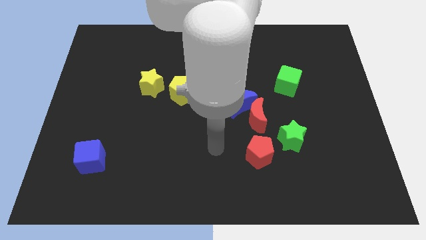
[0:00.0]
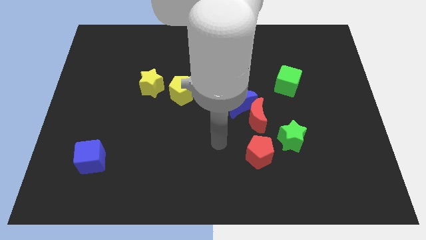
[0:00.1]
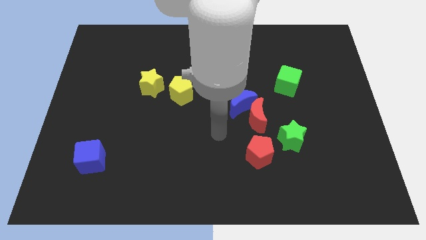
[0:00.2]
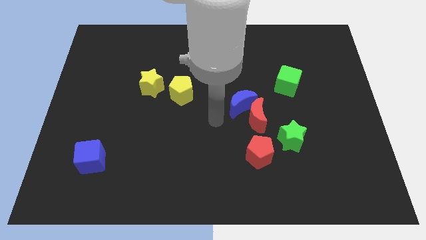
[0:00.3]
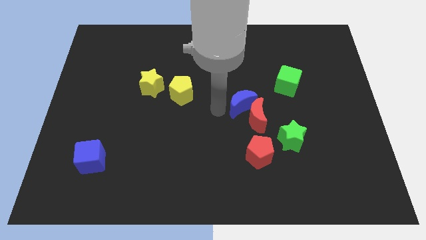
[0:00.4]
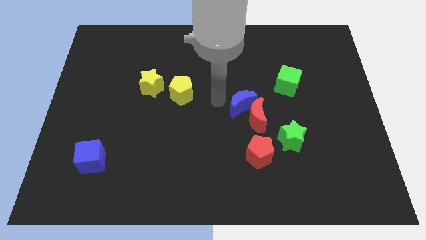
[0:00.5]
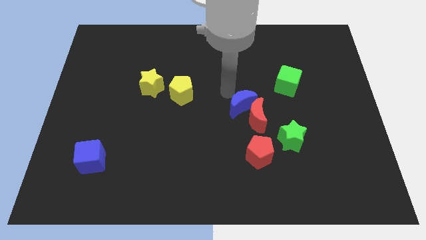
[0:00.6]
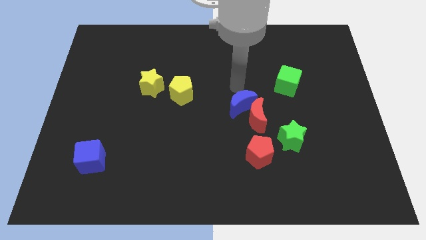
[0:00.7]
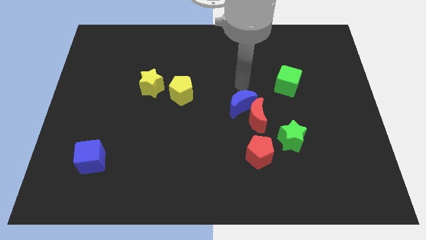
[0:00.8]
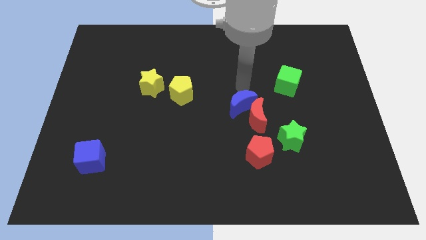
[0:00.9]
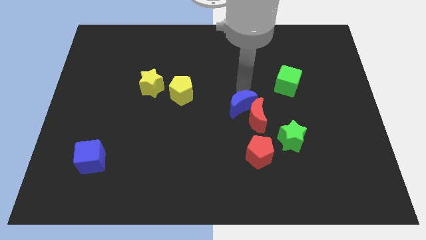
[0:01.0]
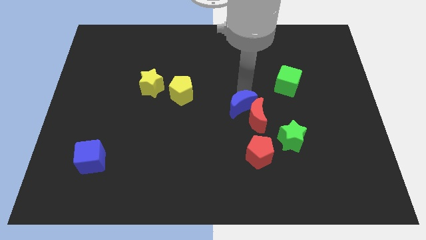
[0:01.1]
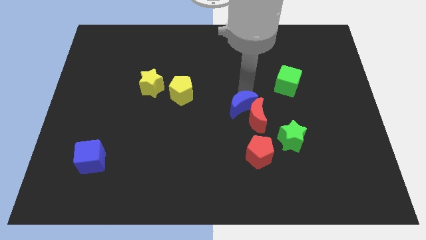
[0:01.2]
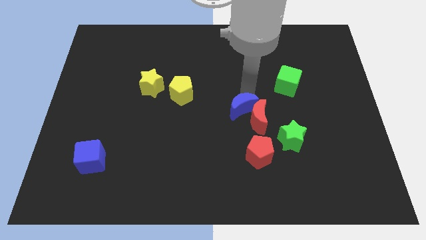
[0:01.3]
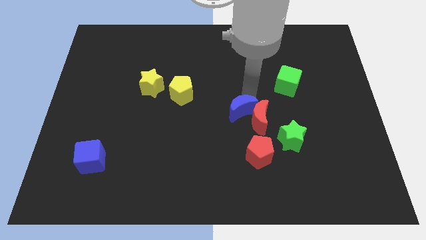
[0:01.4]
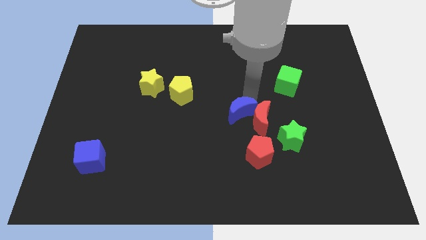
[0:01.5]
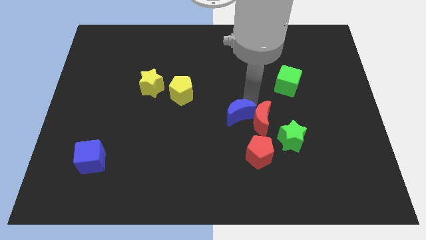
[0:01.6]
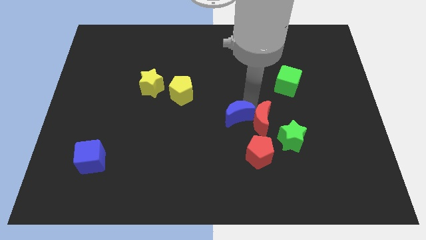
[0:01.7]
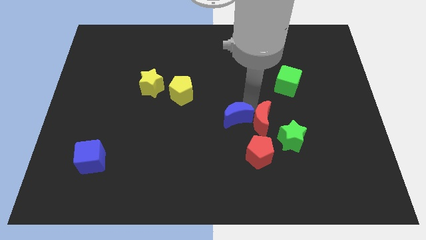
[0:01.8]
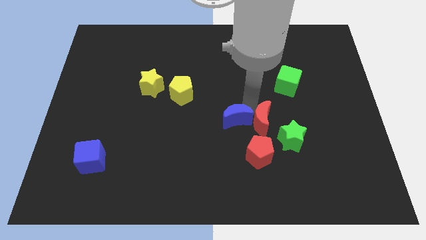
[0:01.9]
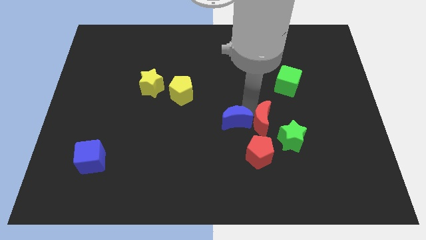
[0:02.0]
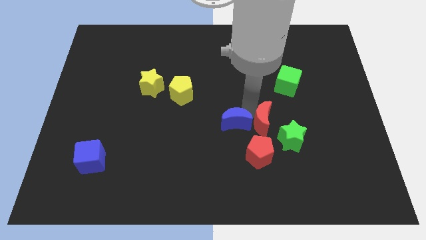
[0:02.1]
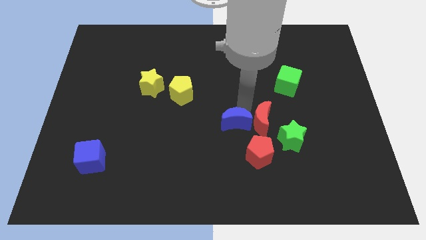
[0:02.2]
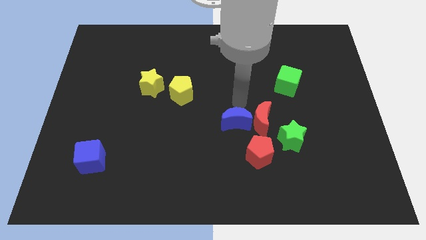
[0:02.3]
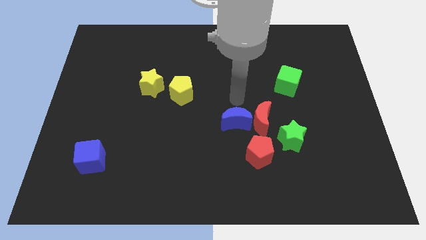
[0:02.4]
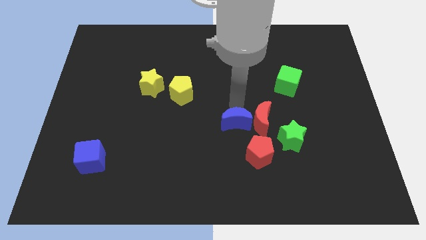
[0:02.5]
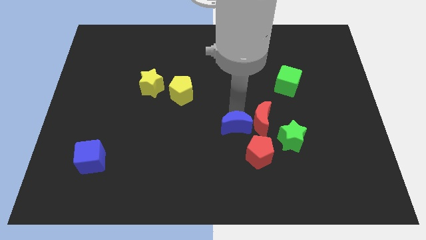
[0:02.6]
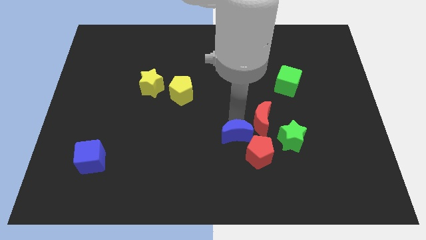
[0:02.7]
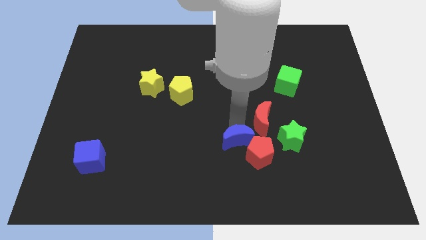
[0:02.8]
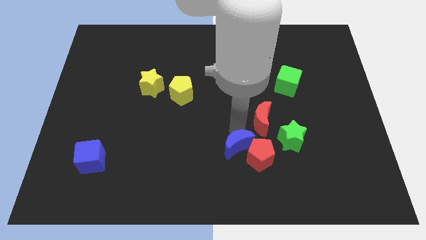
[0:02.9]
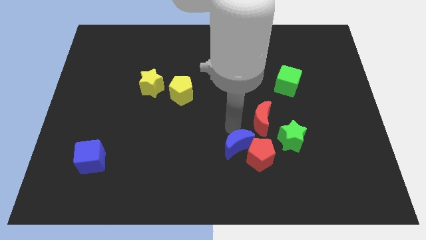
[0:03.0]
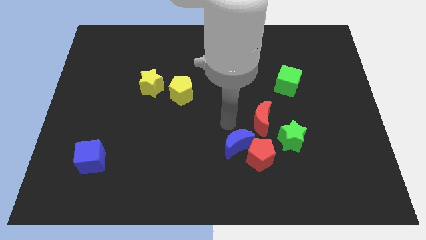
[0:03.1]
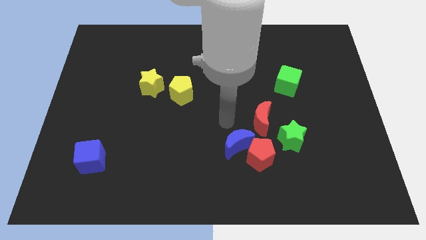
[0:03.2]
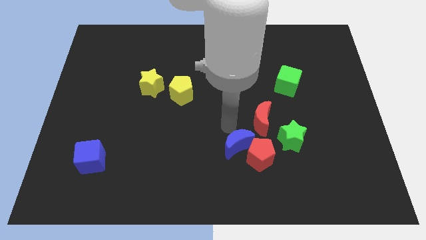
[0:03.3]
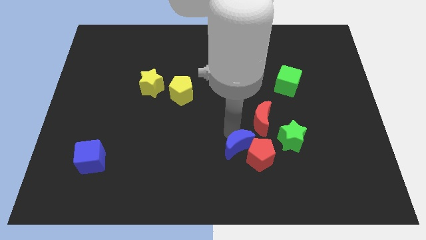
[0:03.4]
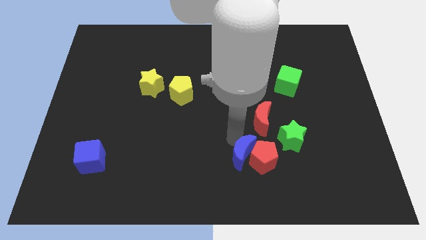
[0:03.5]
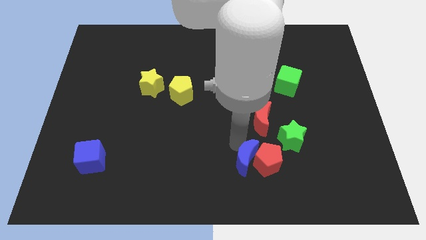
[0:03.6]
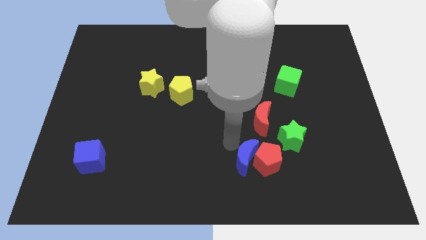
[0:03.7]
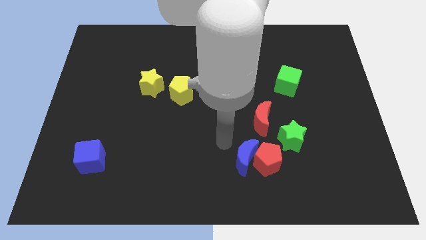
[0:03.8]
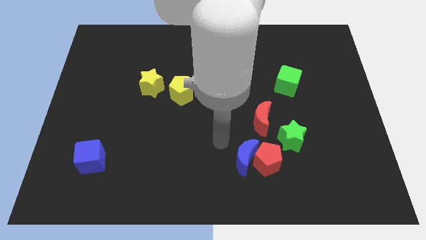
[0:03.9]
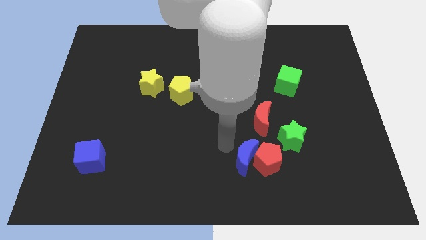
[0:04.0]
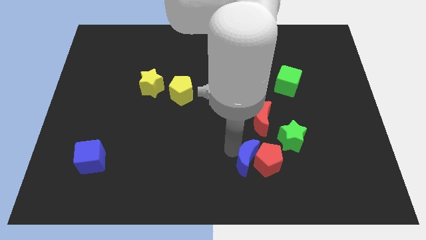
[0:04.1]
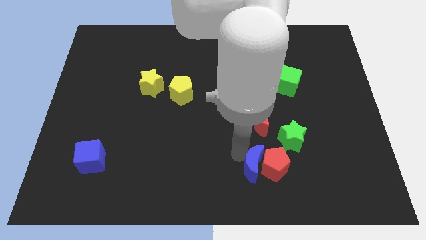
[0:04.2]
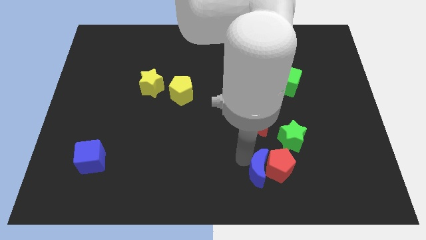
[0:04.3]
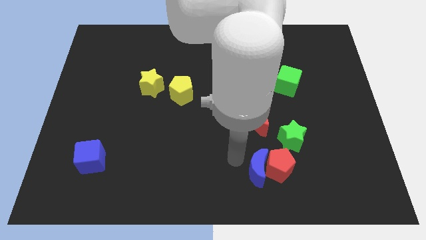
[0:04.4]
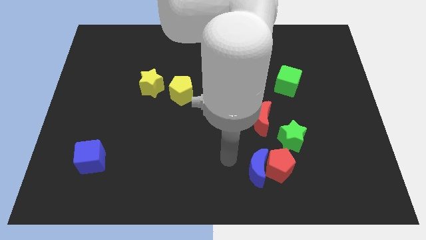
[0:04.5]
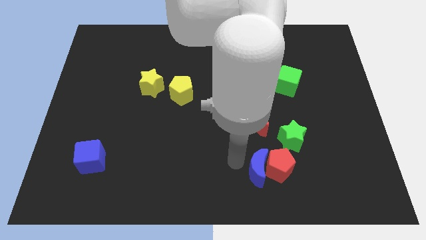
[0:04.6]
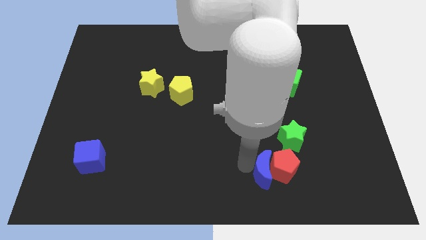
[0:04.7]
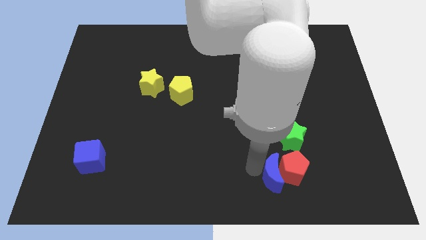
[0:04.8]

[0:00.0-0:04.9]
push the blue moon to the bottom side of the green star

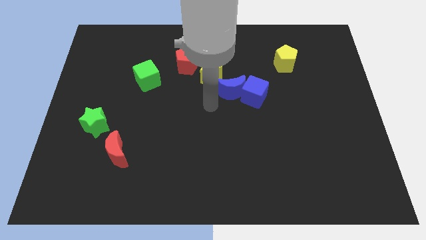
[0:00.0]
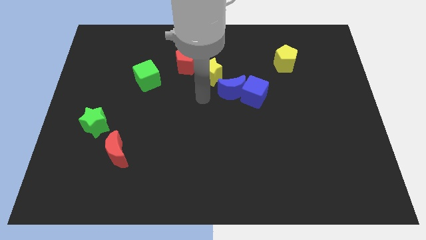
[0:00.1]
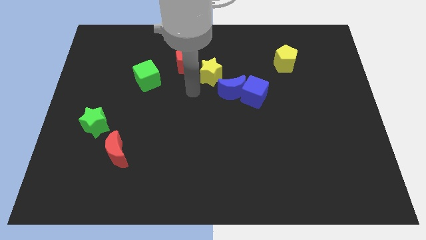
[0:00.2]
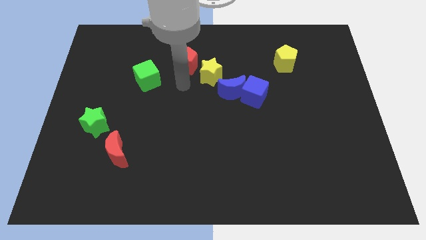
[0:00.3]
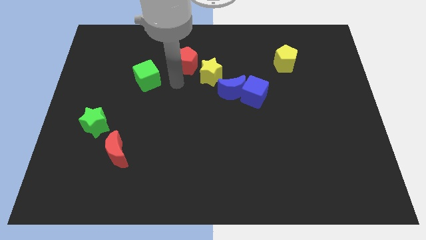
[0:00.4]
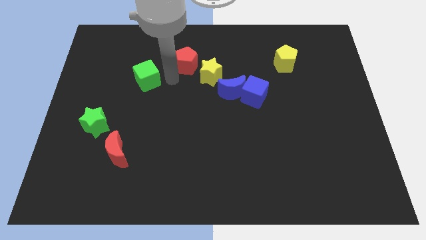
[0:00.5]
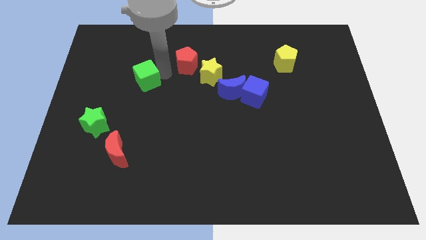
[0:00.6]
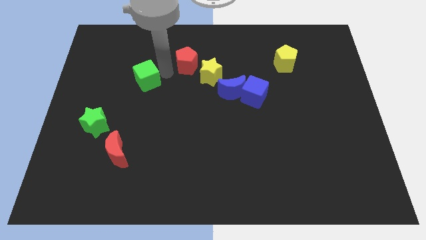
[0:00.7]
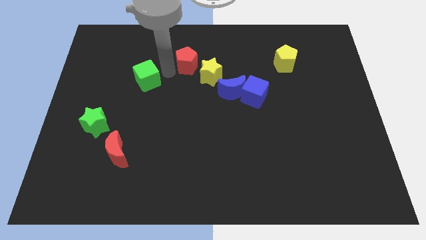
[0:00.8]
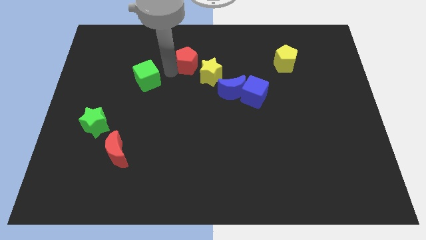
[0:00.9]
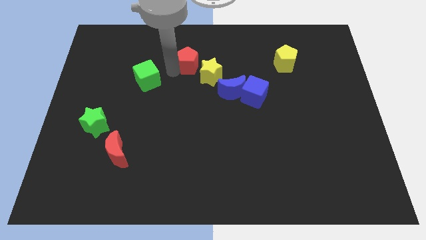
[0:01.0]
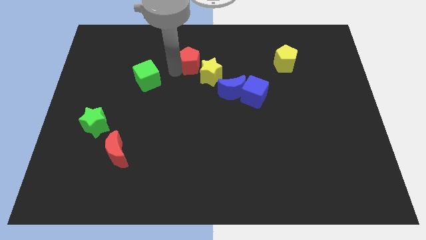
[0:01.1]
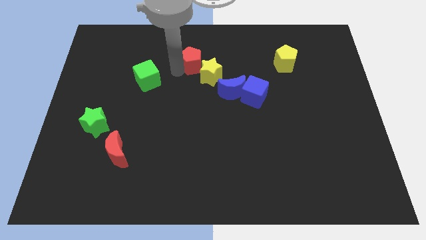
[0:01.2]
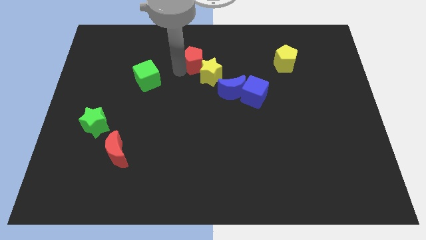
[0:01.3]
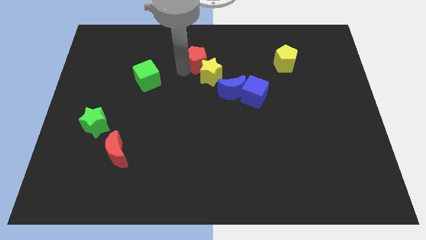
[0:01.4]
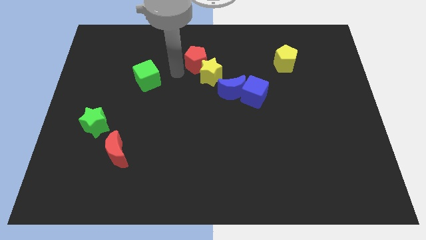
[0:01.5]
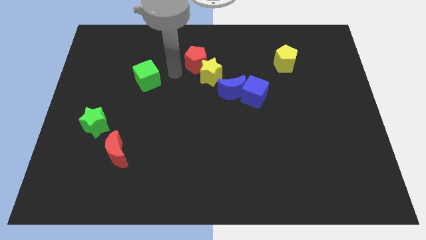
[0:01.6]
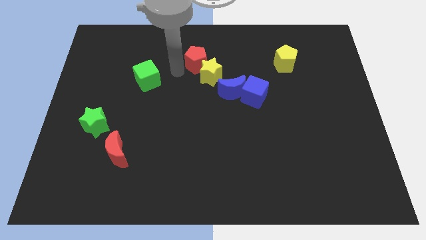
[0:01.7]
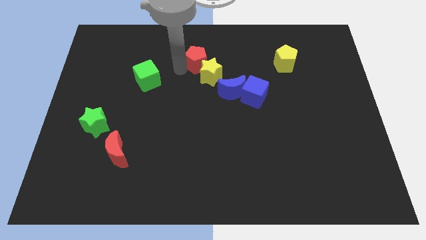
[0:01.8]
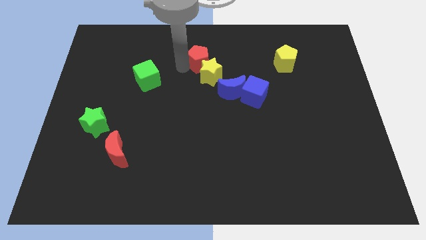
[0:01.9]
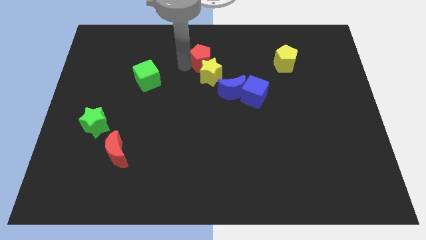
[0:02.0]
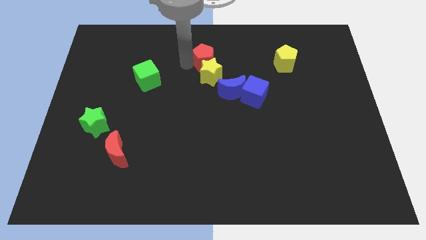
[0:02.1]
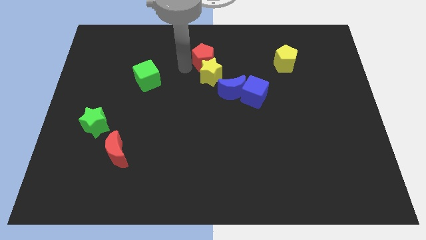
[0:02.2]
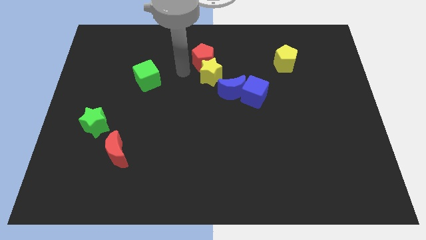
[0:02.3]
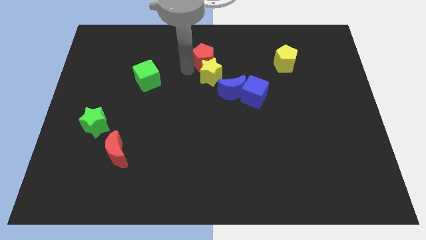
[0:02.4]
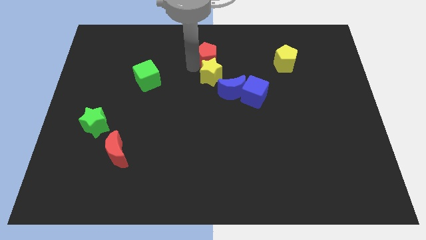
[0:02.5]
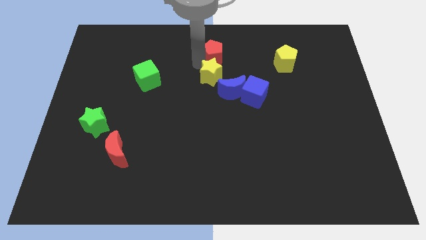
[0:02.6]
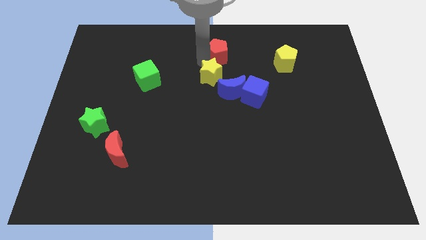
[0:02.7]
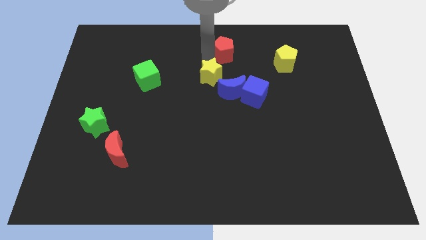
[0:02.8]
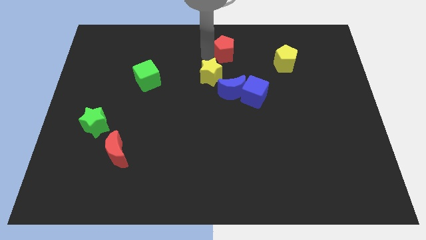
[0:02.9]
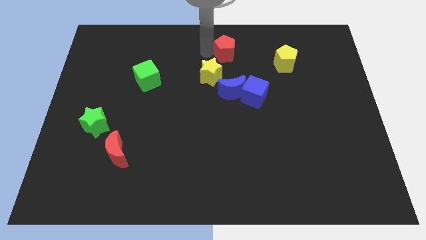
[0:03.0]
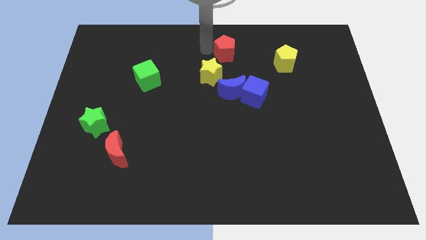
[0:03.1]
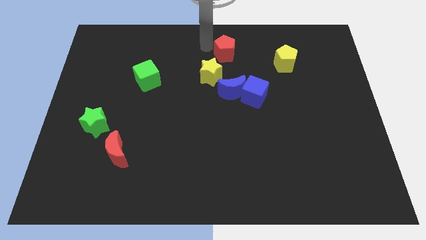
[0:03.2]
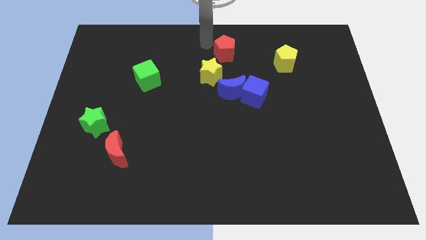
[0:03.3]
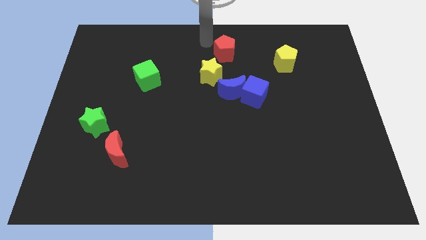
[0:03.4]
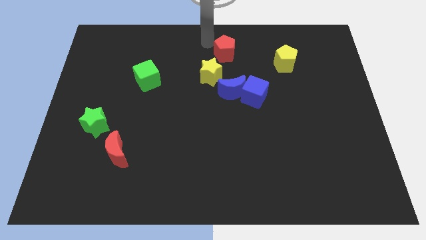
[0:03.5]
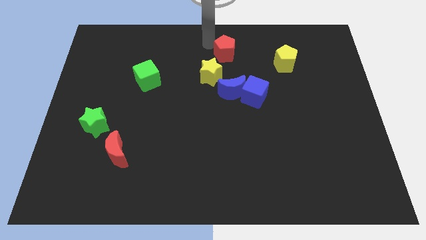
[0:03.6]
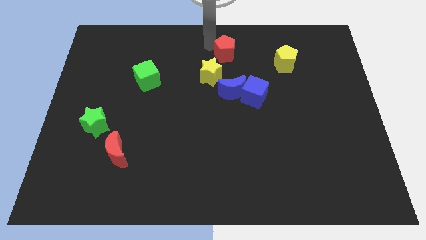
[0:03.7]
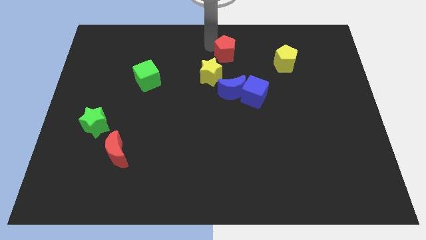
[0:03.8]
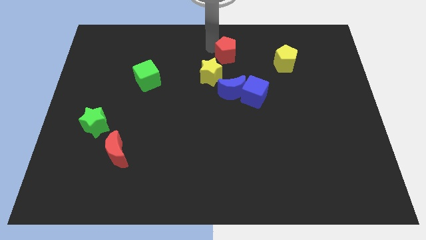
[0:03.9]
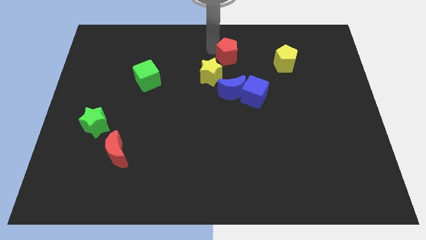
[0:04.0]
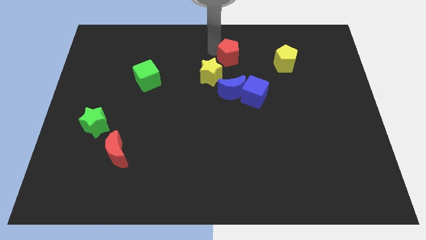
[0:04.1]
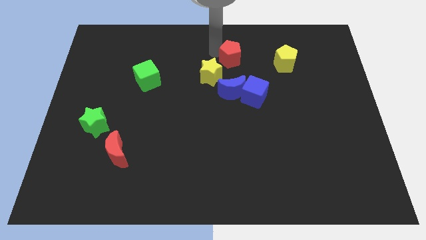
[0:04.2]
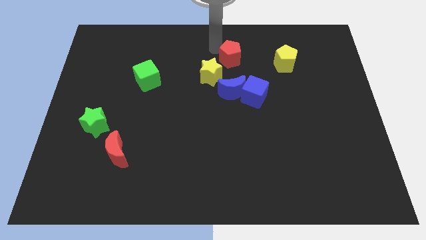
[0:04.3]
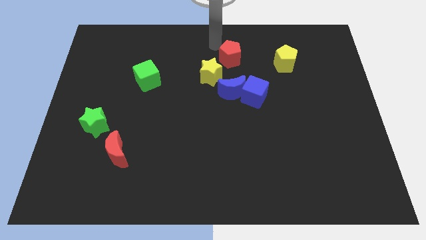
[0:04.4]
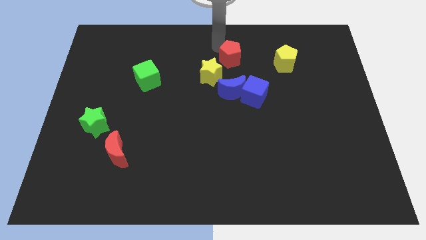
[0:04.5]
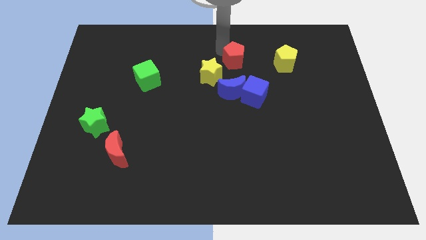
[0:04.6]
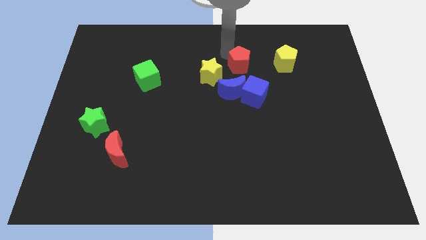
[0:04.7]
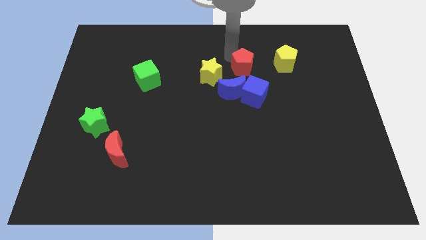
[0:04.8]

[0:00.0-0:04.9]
push the red pentagon to the top left of the blue cube
